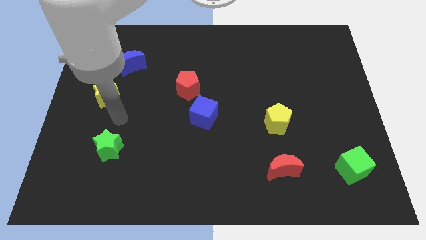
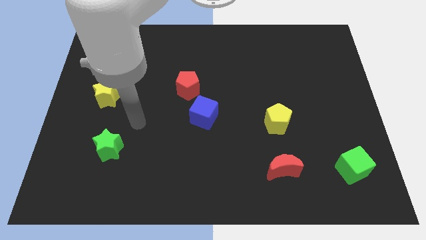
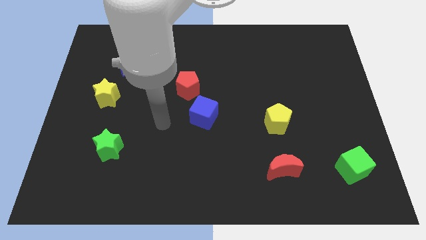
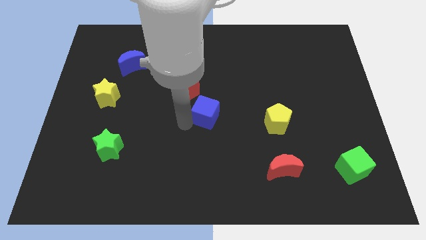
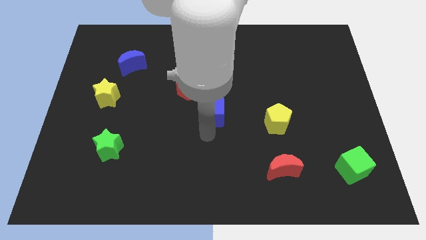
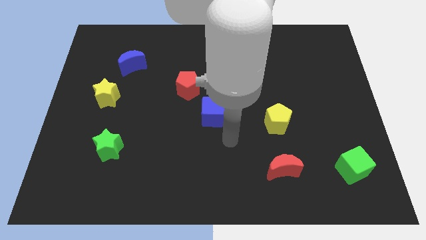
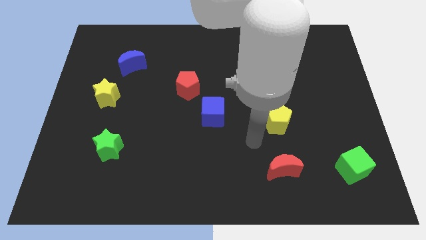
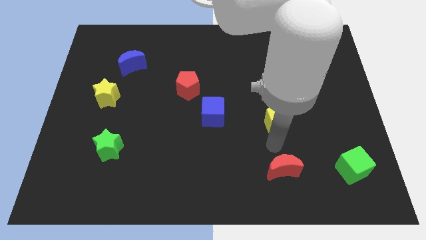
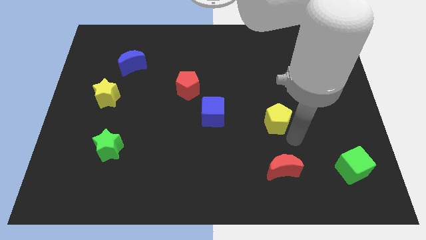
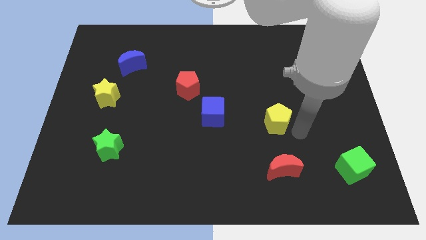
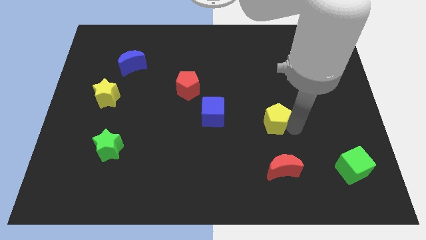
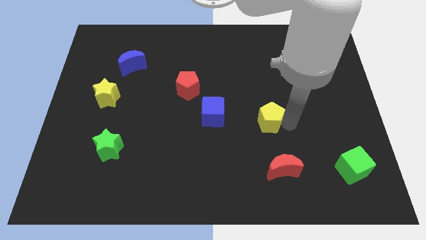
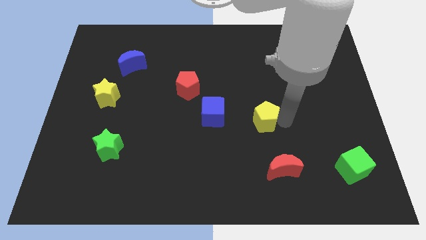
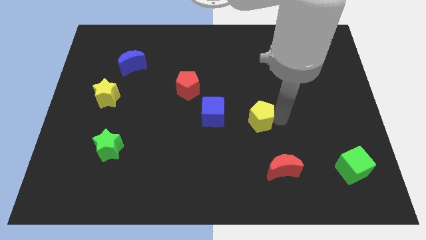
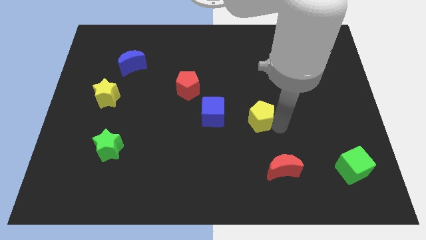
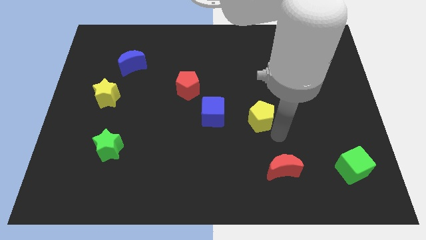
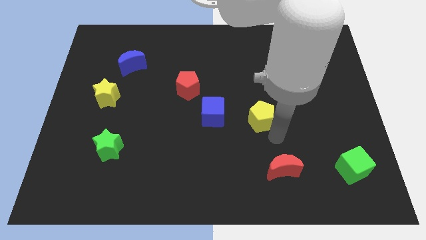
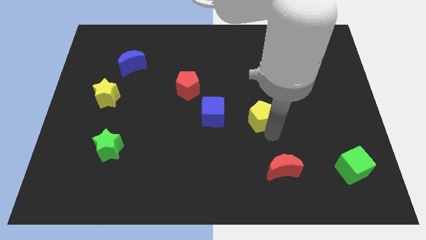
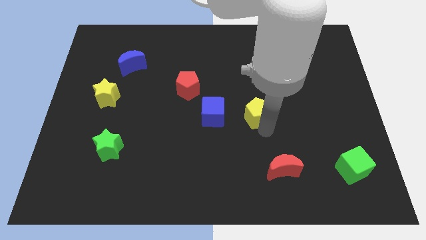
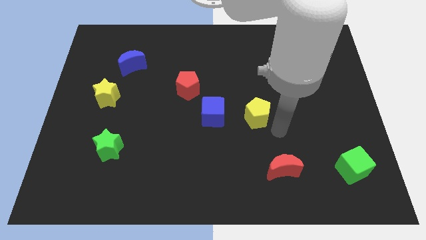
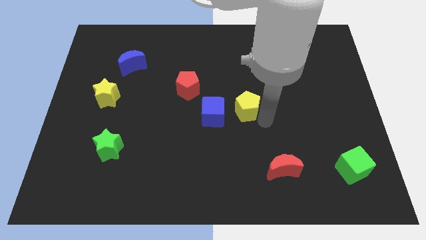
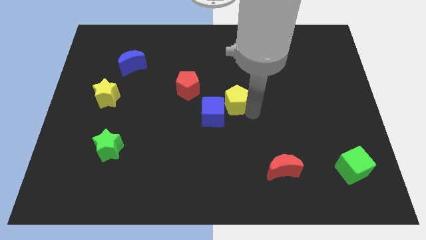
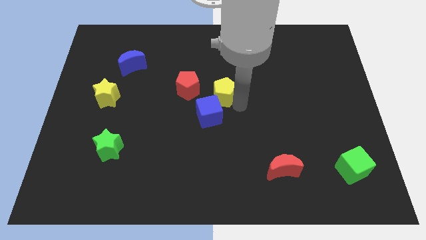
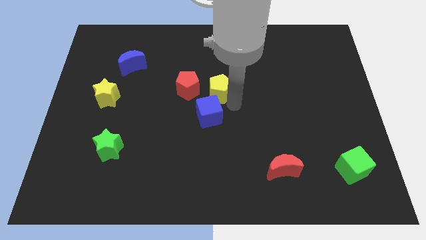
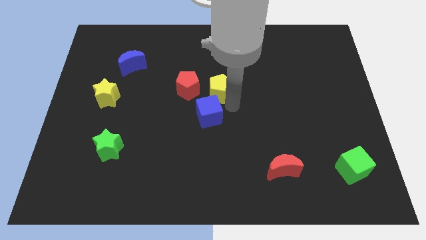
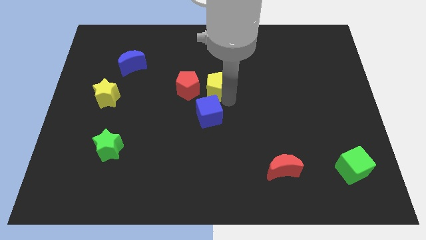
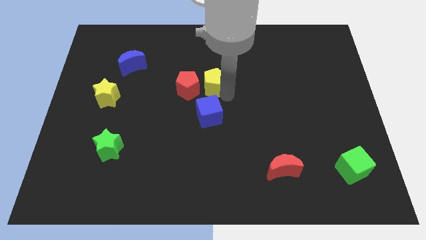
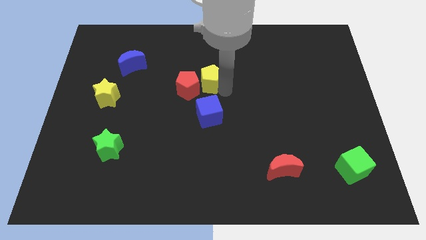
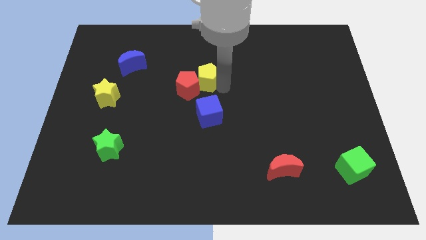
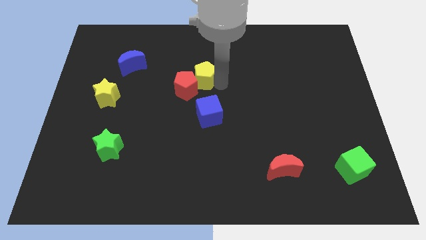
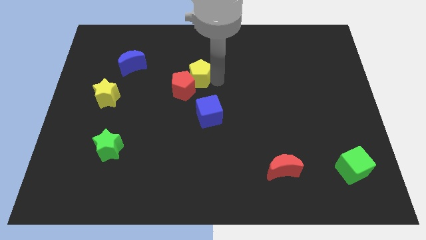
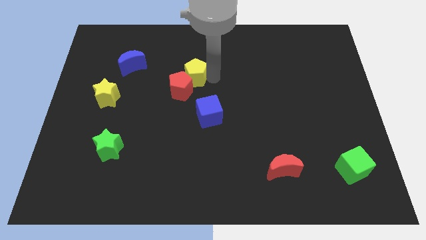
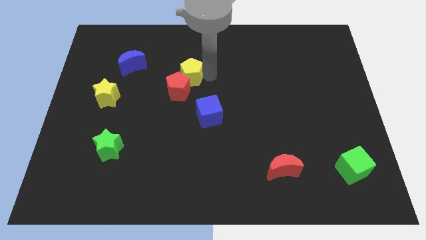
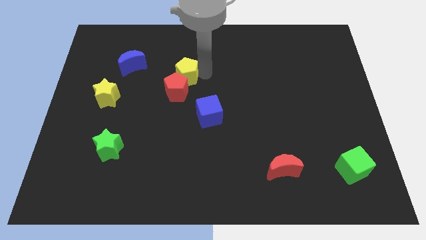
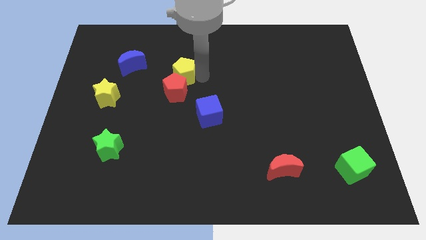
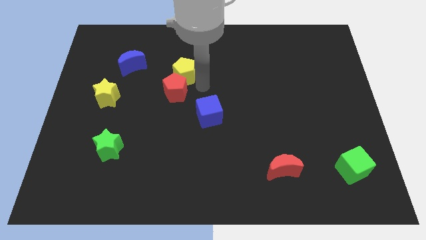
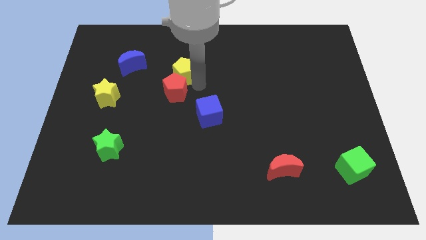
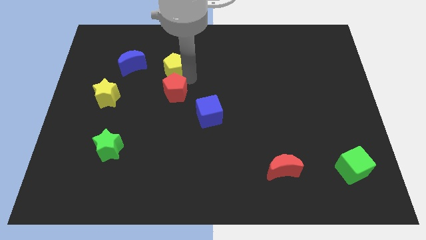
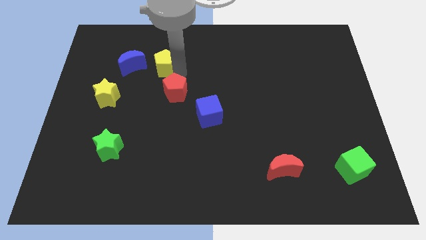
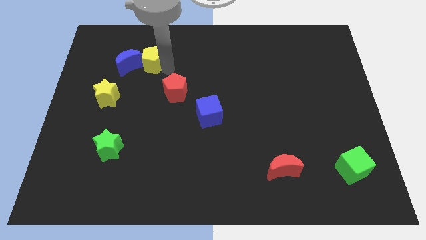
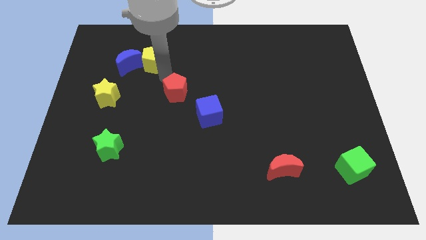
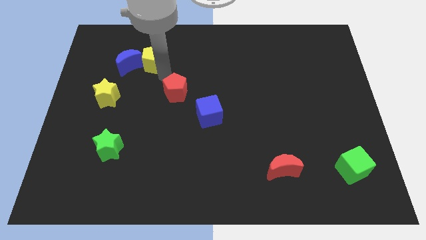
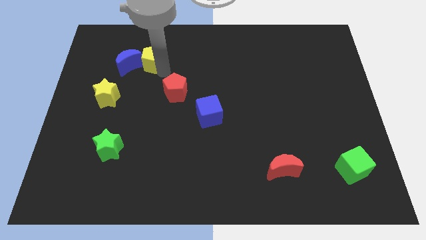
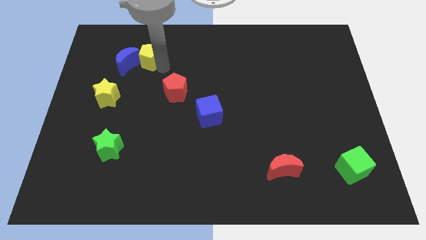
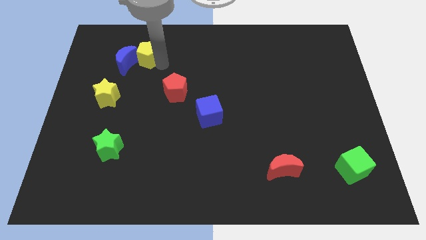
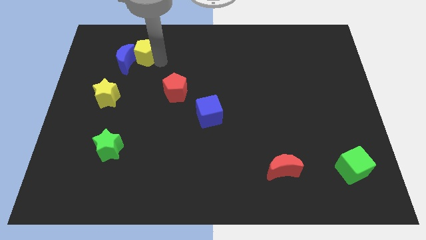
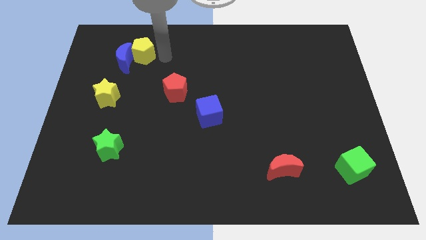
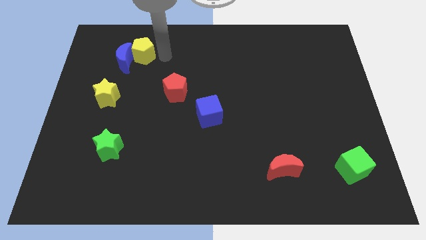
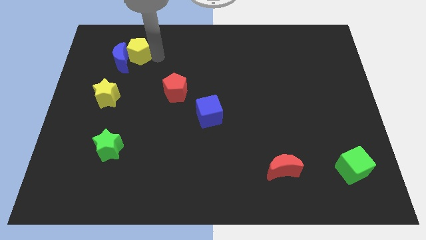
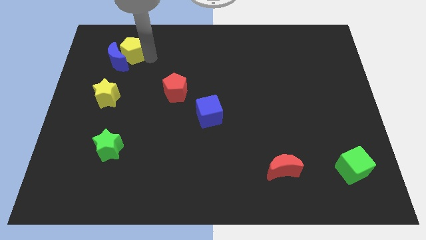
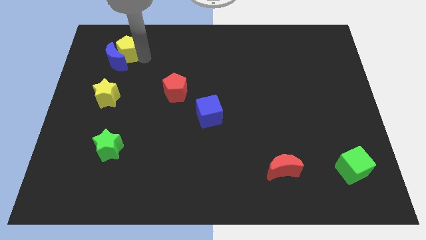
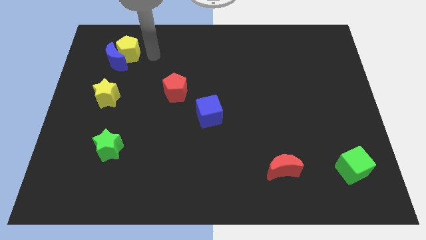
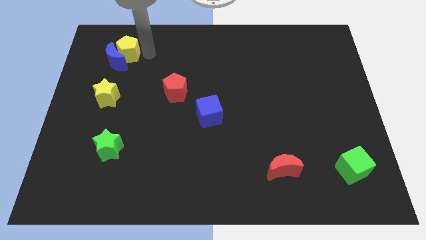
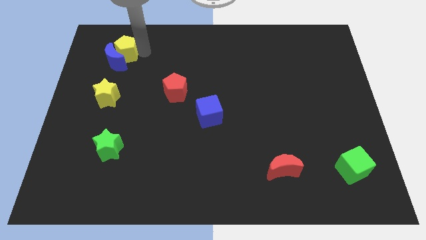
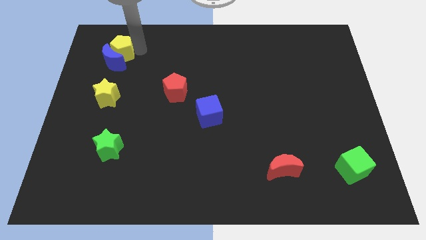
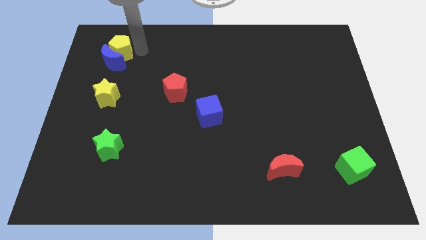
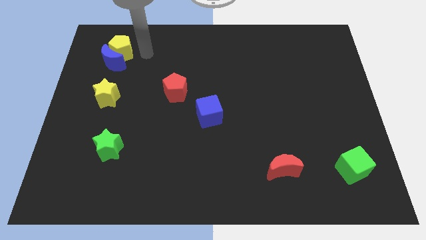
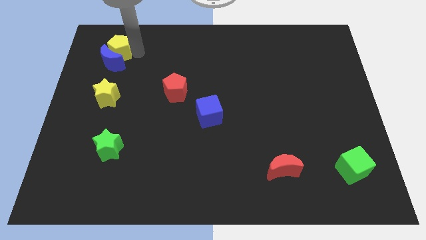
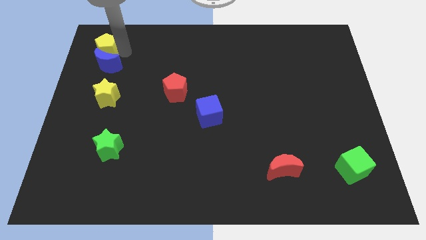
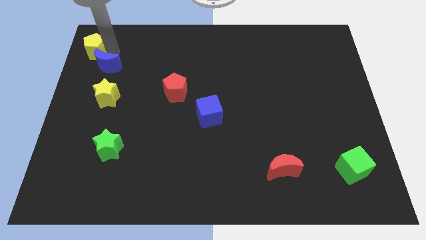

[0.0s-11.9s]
put the yellow pentagon to the top left of the board

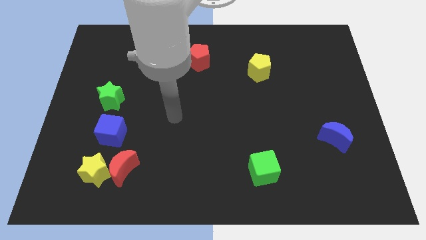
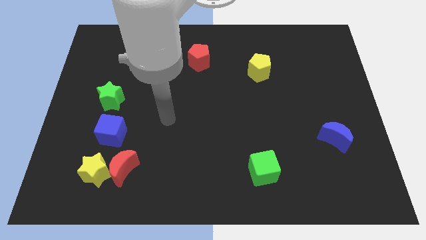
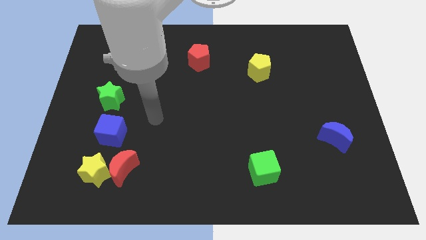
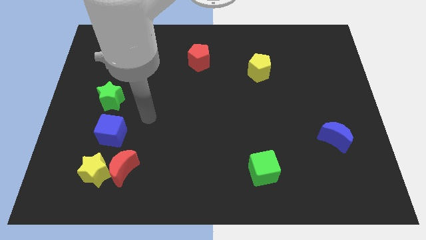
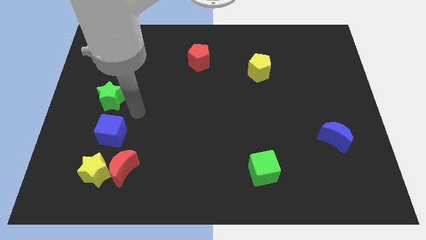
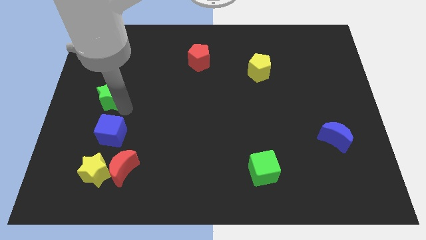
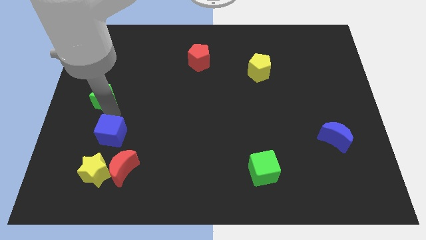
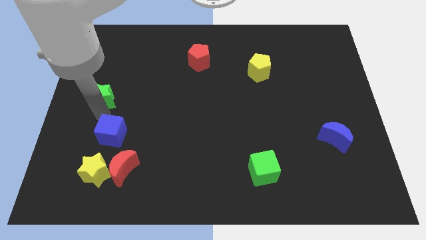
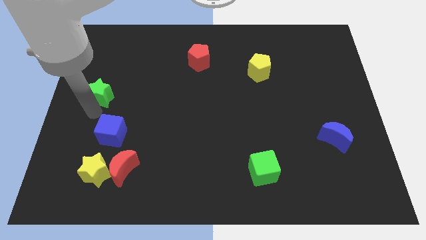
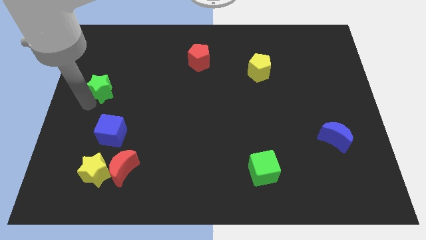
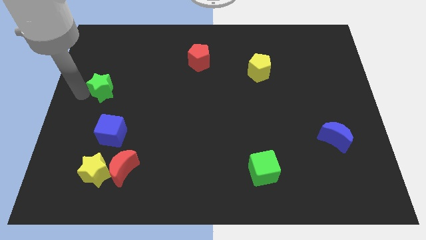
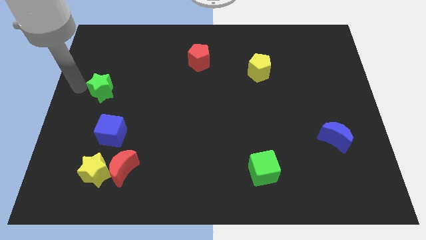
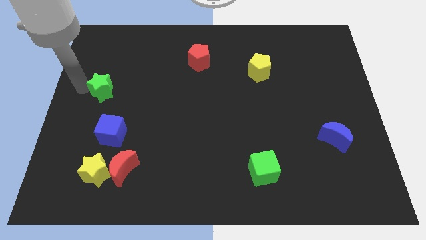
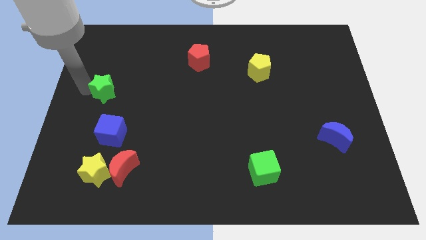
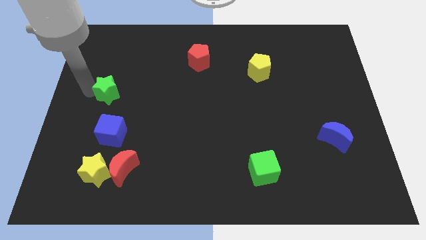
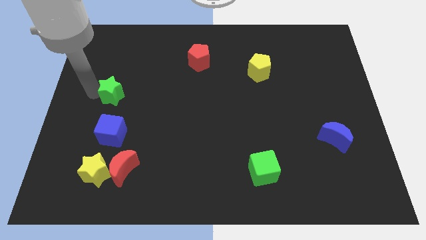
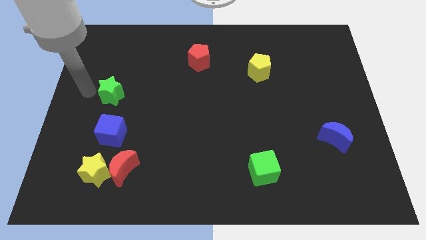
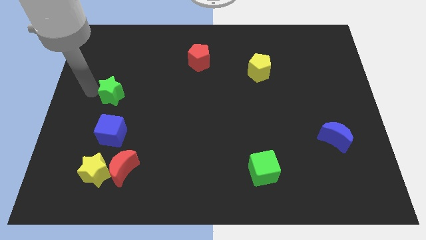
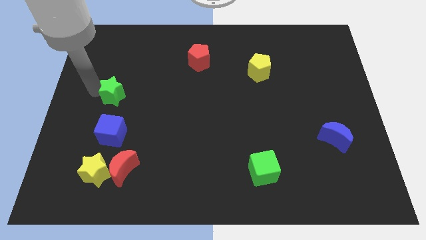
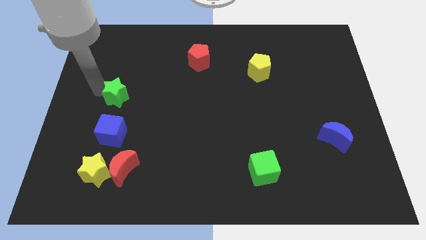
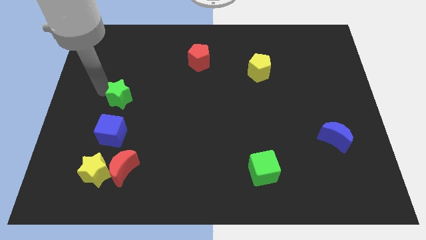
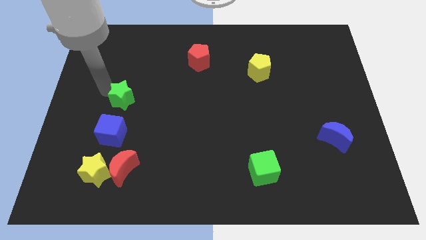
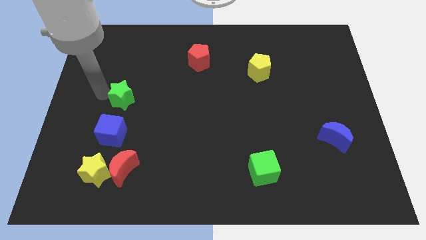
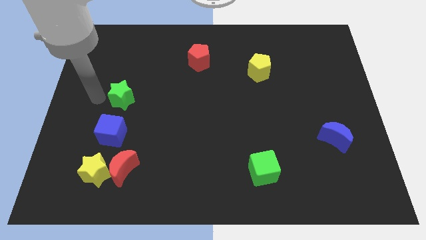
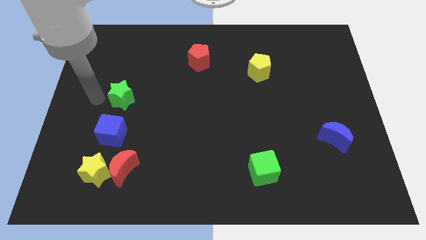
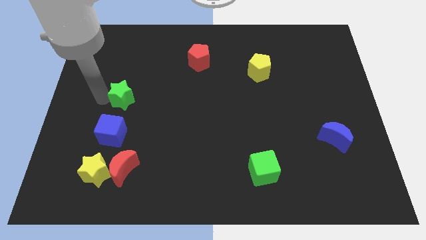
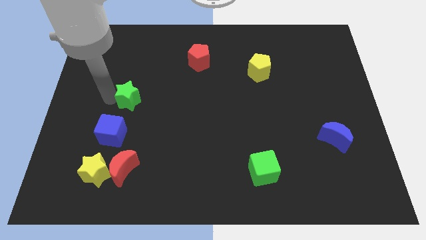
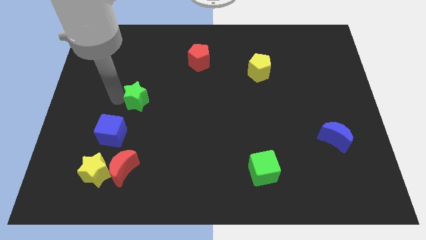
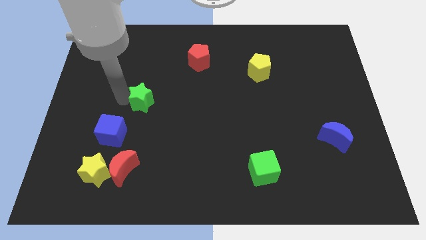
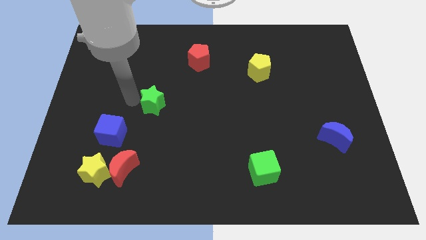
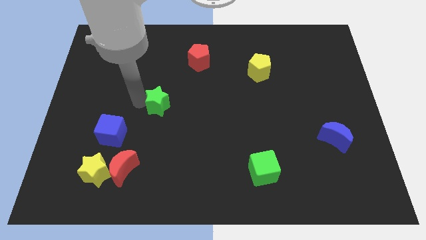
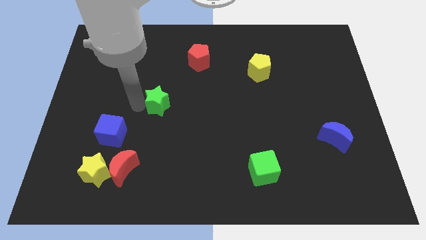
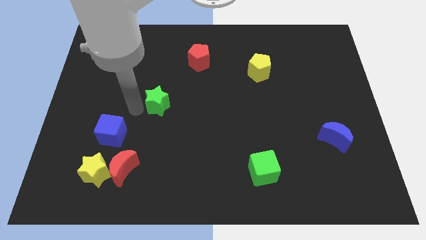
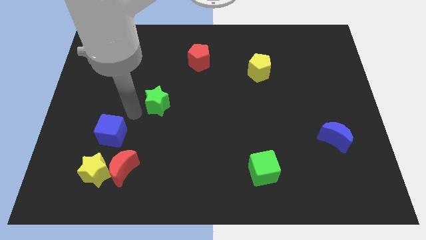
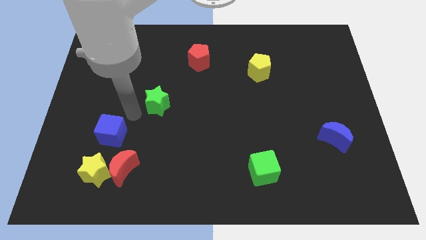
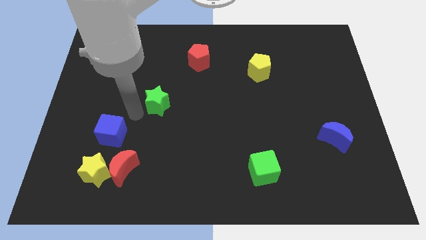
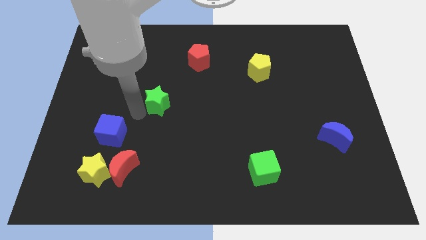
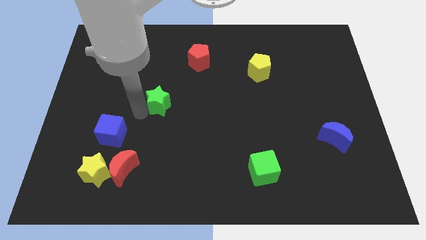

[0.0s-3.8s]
move the green star to the middle
